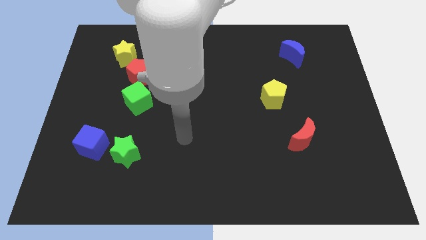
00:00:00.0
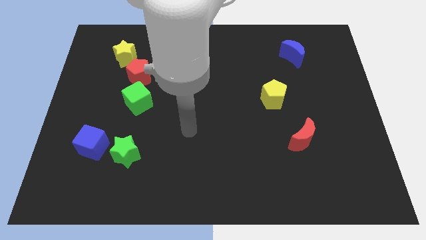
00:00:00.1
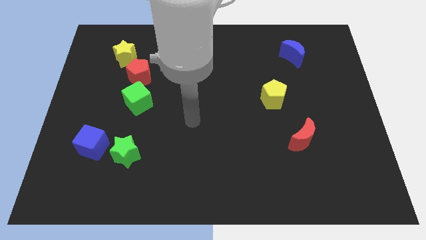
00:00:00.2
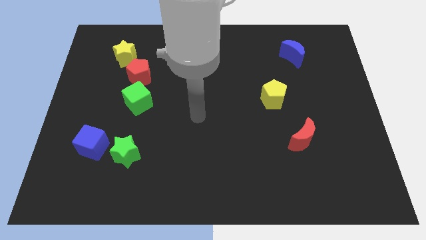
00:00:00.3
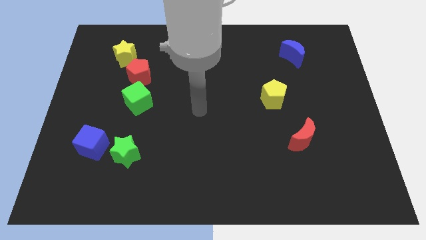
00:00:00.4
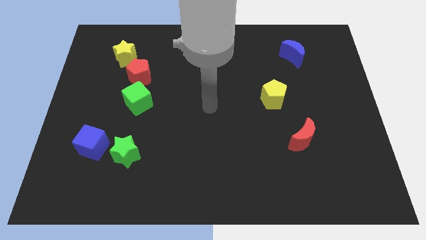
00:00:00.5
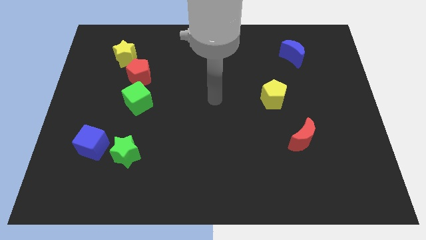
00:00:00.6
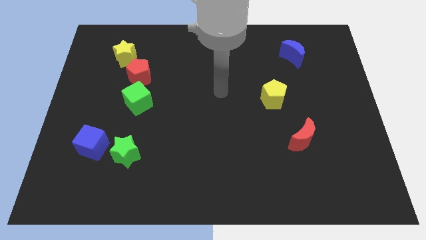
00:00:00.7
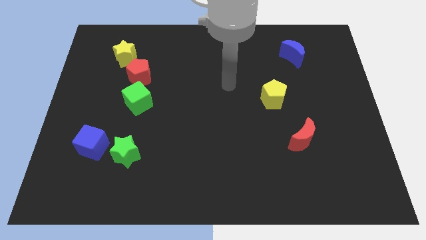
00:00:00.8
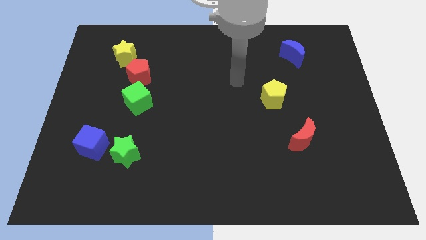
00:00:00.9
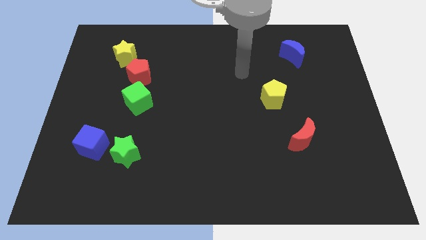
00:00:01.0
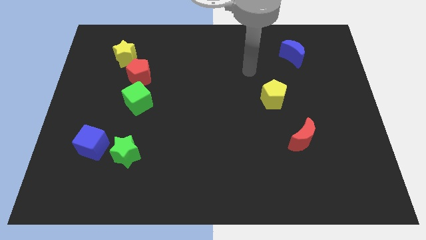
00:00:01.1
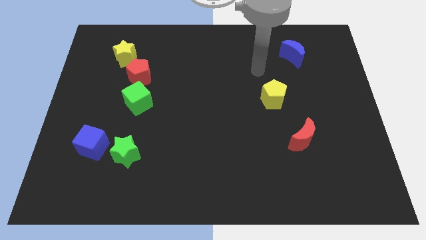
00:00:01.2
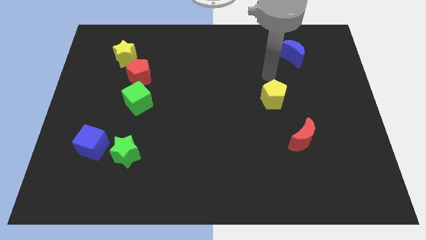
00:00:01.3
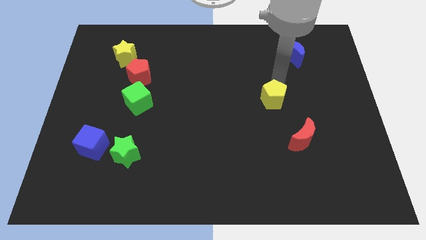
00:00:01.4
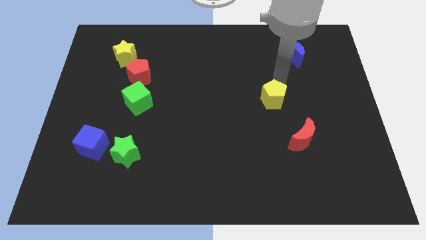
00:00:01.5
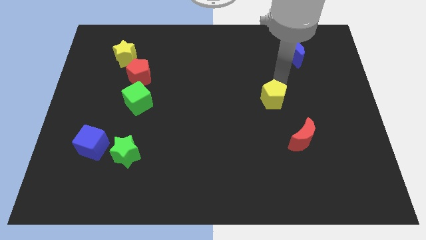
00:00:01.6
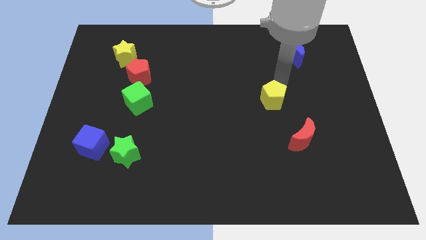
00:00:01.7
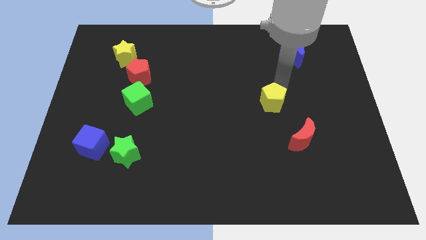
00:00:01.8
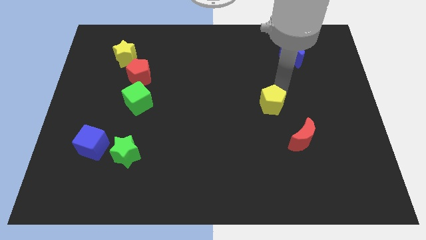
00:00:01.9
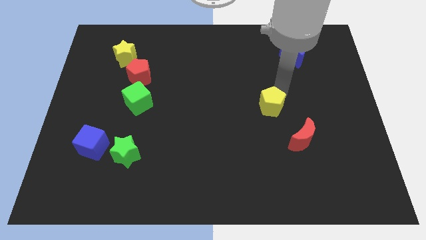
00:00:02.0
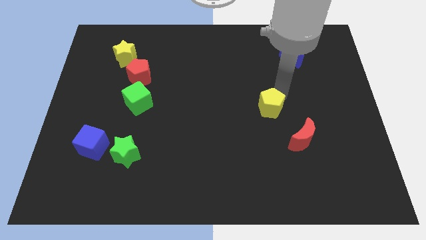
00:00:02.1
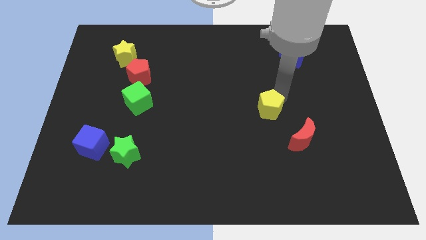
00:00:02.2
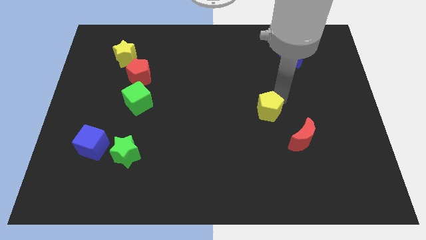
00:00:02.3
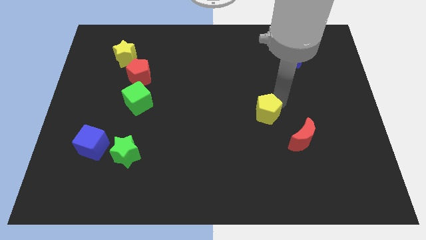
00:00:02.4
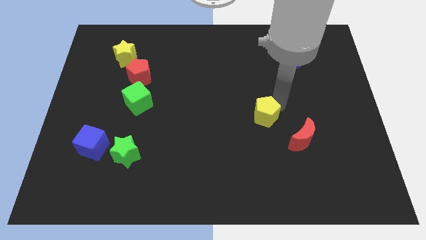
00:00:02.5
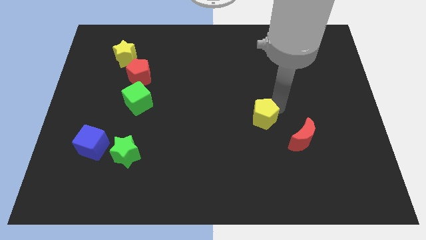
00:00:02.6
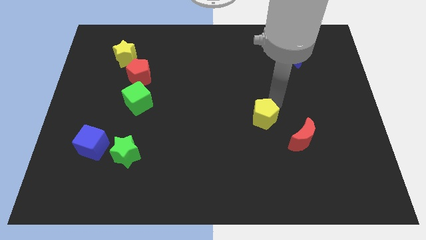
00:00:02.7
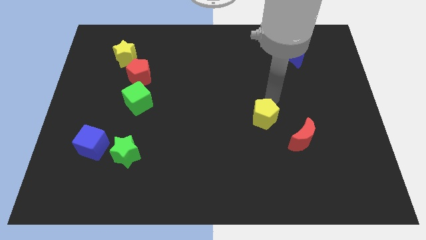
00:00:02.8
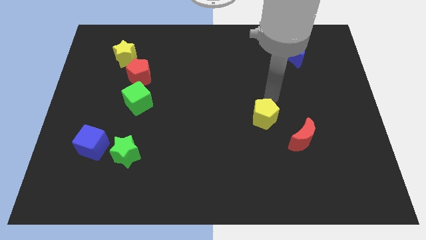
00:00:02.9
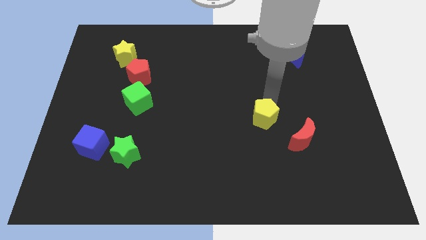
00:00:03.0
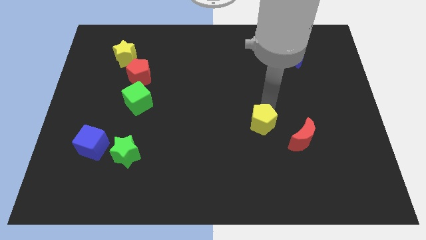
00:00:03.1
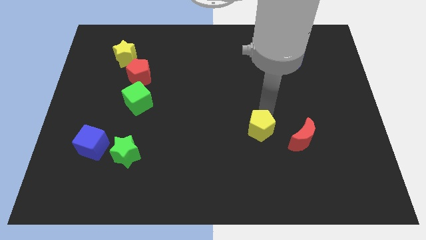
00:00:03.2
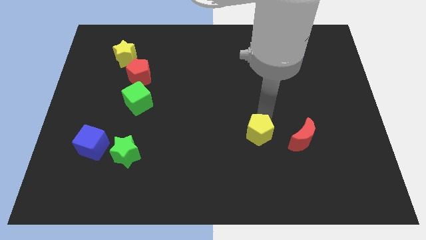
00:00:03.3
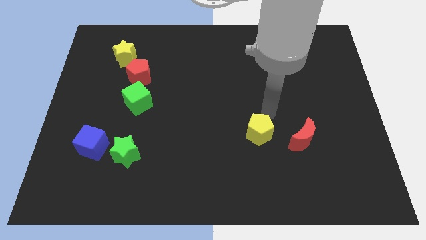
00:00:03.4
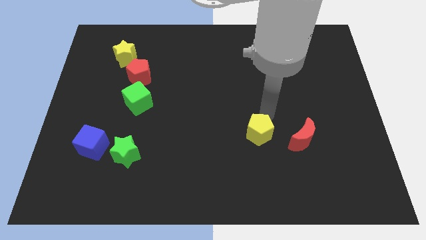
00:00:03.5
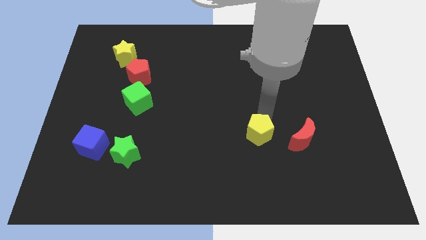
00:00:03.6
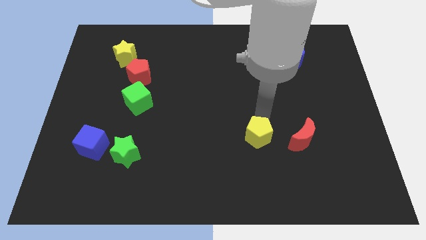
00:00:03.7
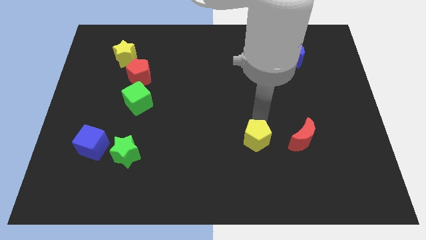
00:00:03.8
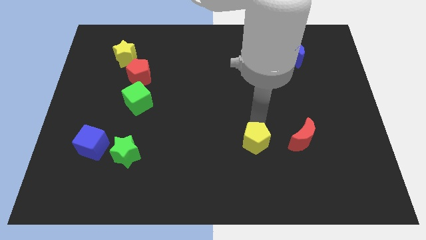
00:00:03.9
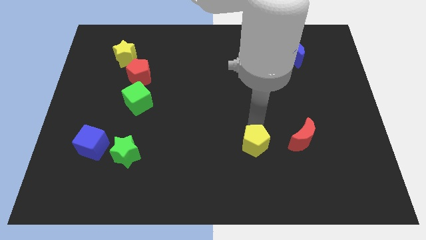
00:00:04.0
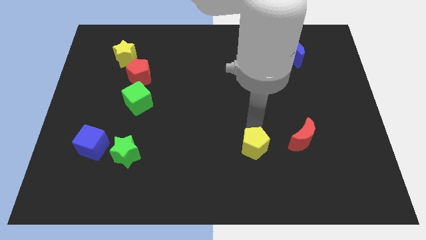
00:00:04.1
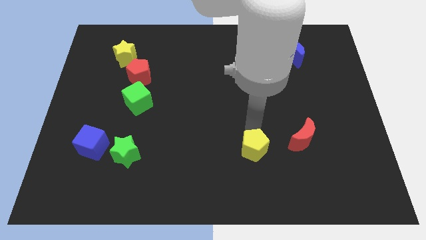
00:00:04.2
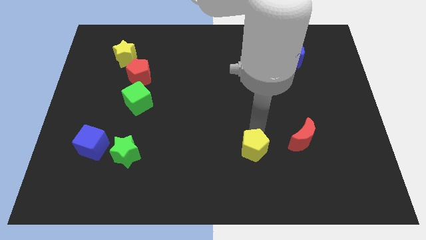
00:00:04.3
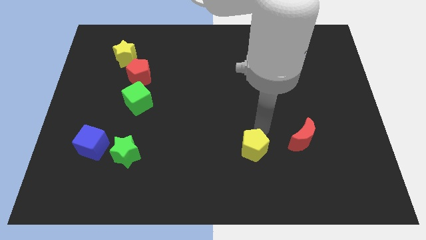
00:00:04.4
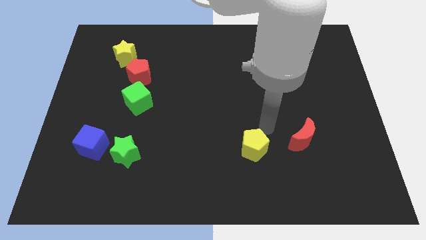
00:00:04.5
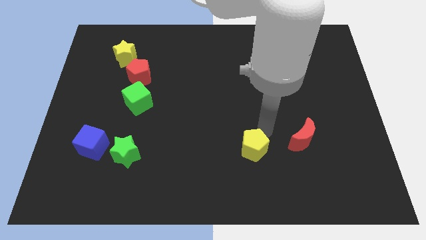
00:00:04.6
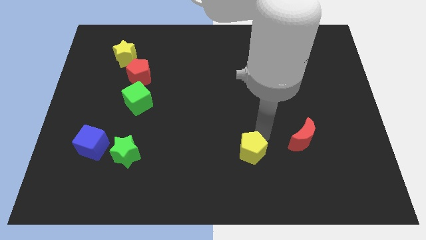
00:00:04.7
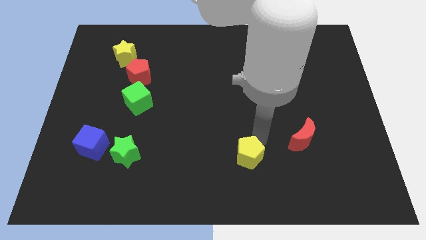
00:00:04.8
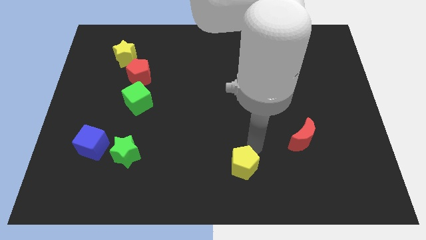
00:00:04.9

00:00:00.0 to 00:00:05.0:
move the yellow pentagon to the bottom

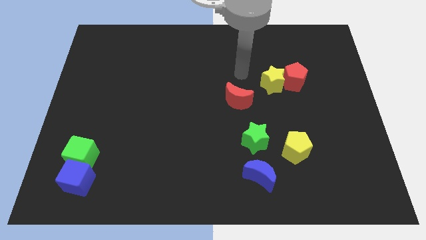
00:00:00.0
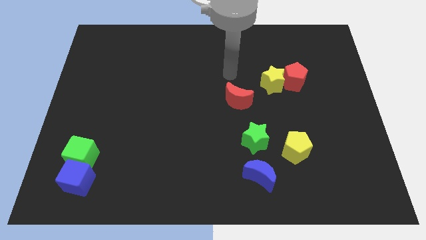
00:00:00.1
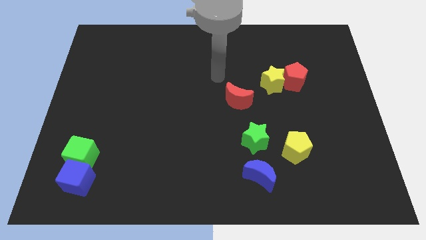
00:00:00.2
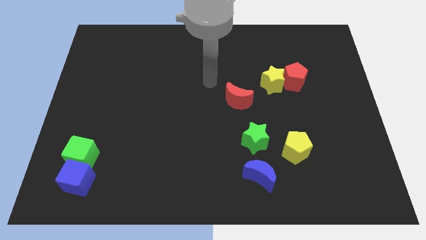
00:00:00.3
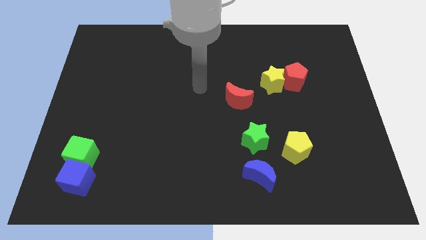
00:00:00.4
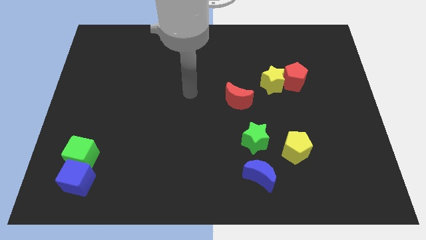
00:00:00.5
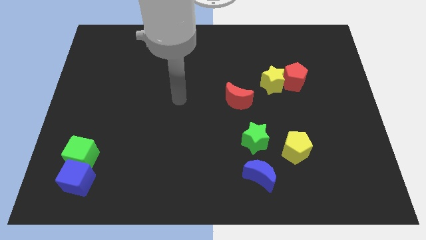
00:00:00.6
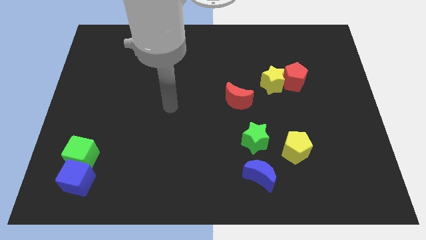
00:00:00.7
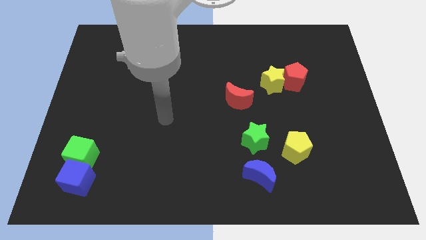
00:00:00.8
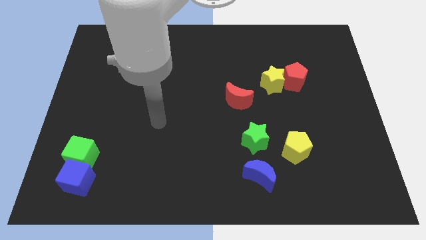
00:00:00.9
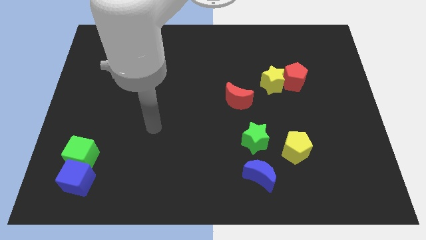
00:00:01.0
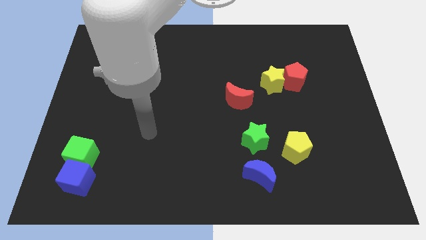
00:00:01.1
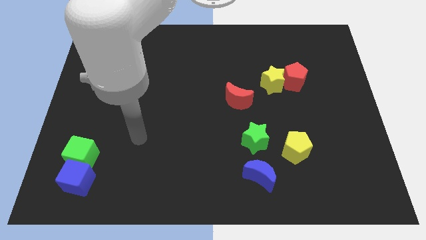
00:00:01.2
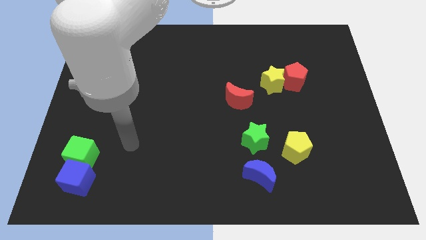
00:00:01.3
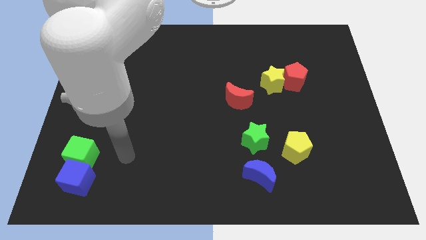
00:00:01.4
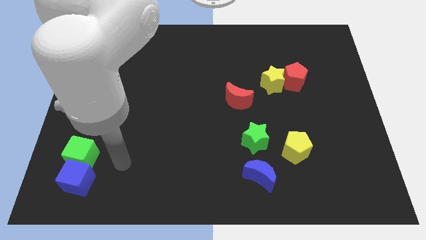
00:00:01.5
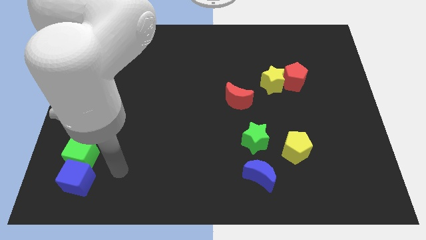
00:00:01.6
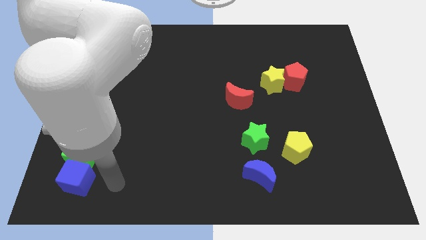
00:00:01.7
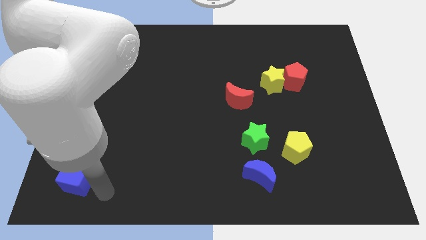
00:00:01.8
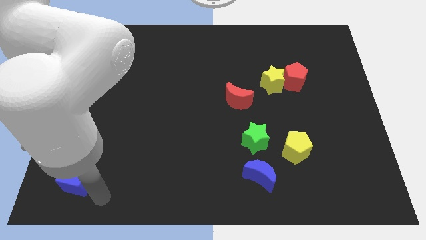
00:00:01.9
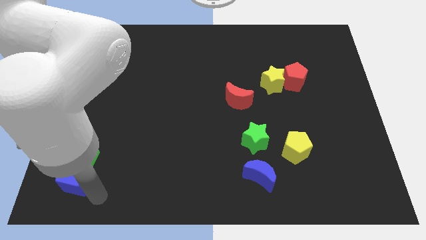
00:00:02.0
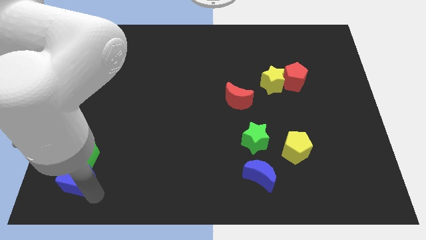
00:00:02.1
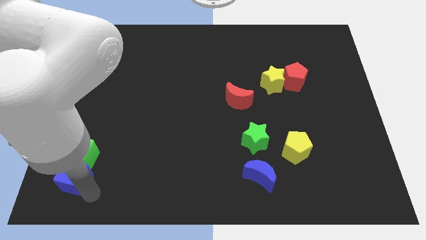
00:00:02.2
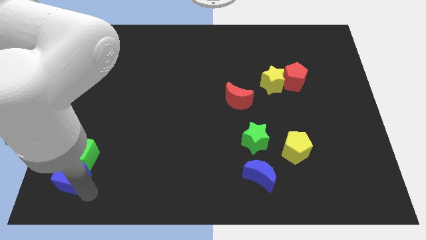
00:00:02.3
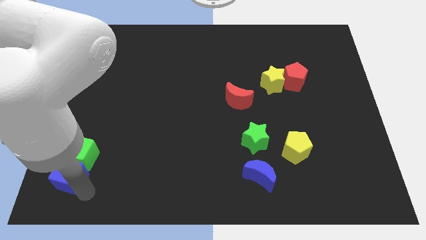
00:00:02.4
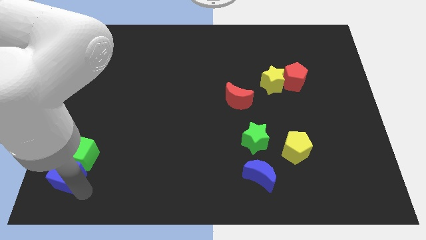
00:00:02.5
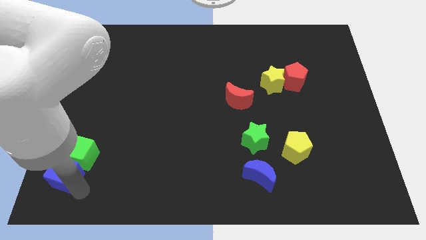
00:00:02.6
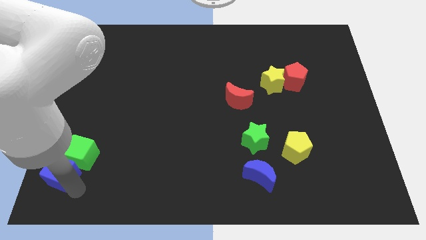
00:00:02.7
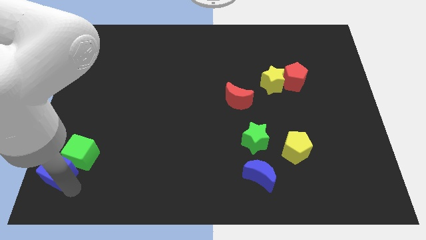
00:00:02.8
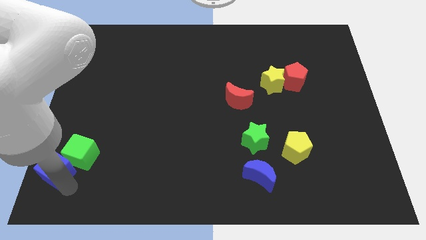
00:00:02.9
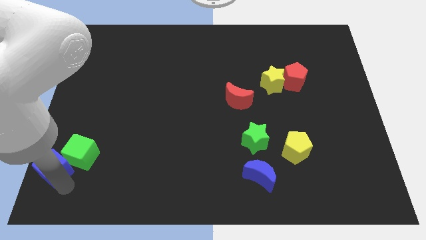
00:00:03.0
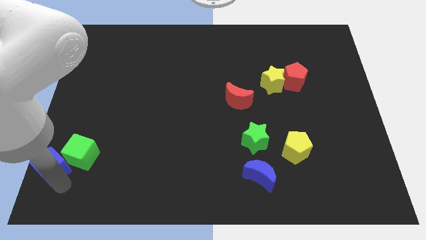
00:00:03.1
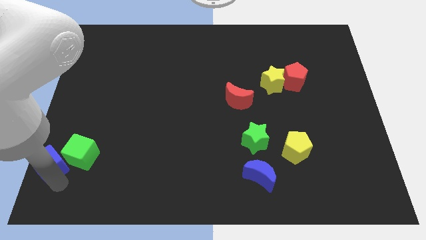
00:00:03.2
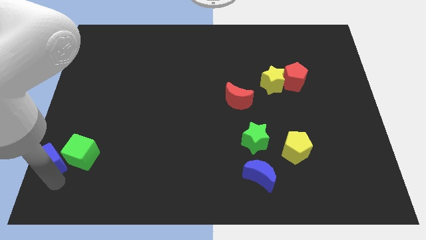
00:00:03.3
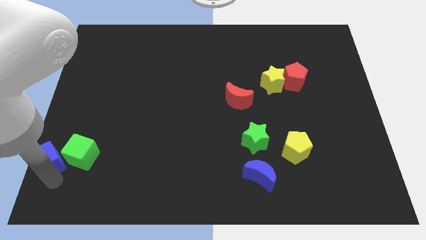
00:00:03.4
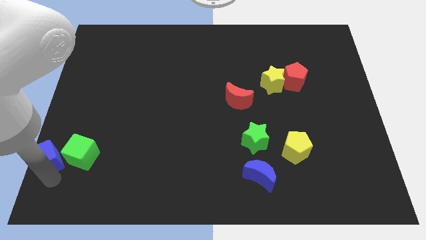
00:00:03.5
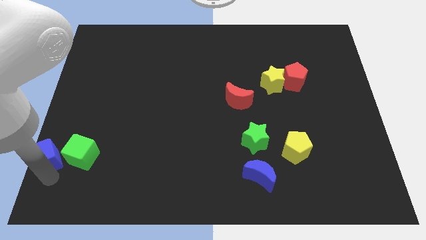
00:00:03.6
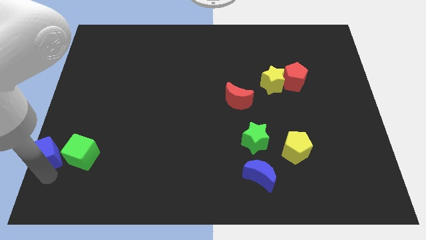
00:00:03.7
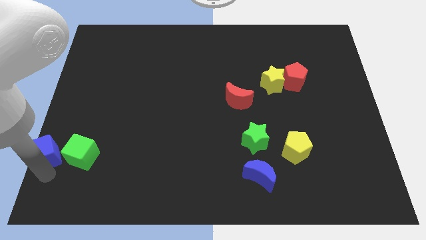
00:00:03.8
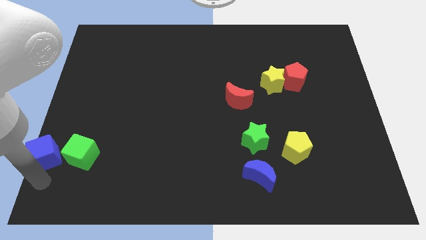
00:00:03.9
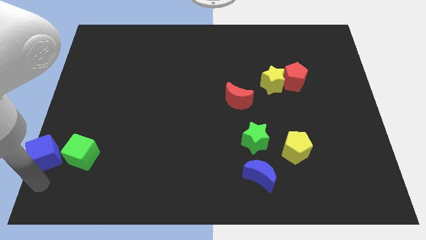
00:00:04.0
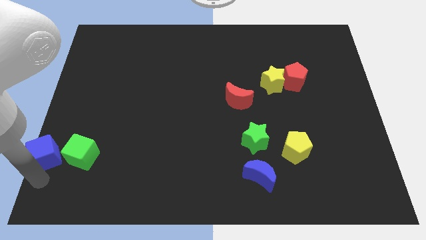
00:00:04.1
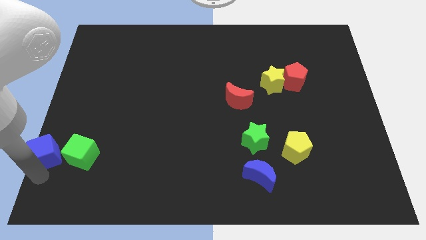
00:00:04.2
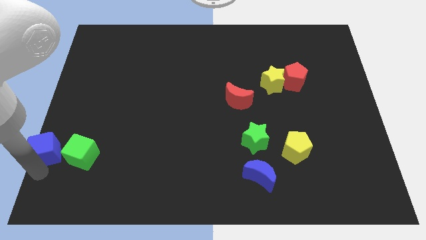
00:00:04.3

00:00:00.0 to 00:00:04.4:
put the blue cube to the center left
